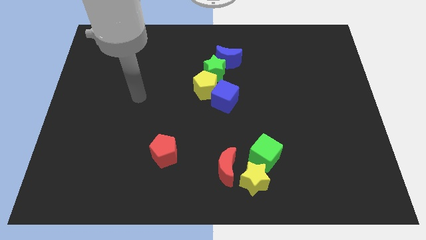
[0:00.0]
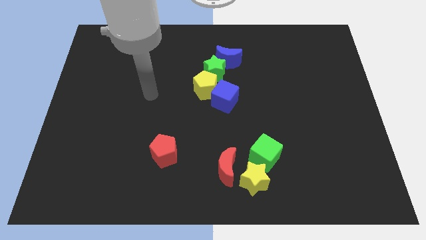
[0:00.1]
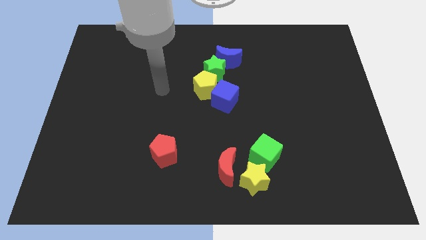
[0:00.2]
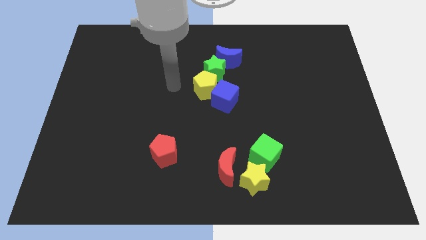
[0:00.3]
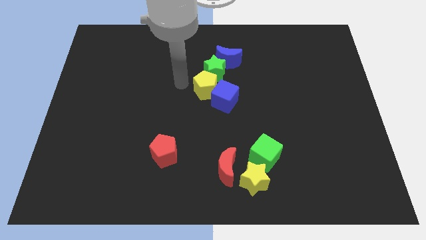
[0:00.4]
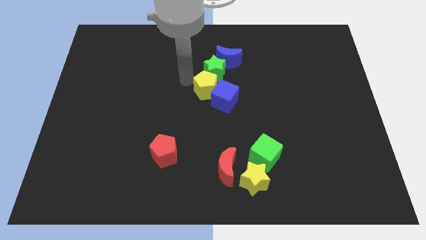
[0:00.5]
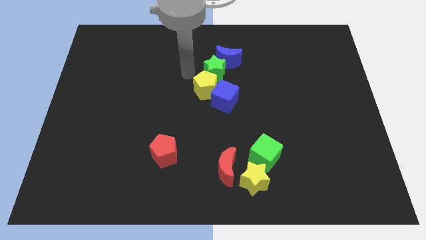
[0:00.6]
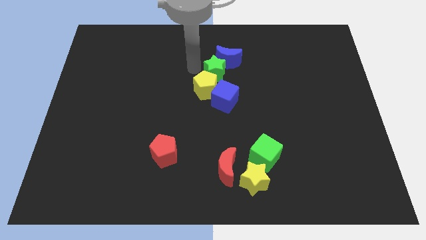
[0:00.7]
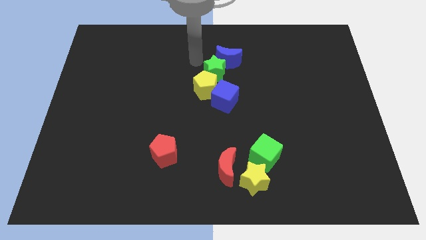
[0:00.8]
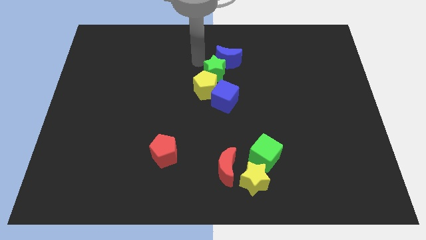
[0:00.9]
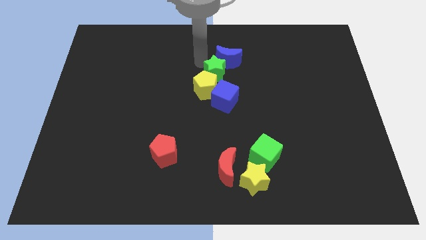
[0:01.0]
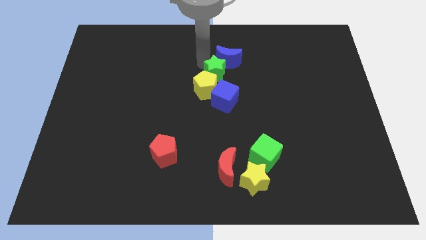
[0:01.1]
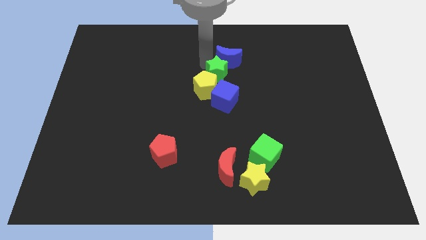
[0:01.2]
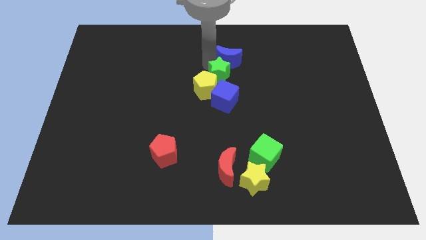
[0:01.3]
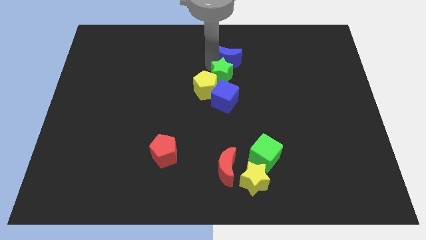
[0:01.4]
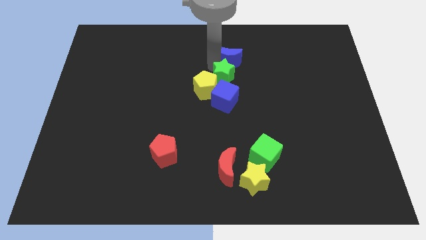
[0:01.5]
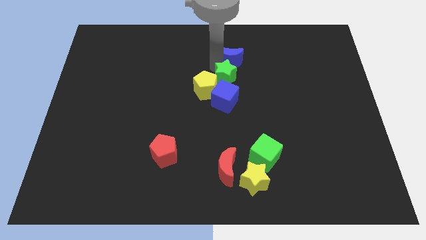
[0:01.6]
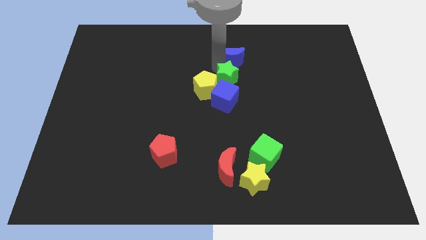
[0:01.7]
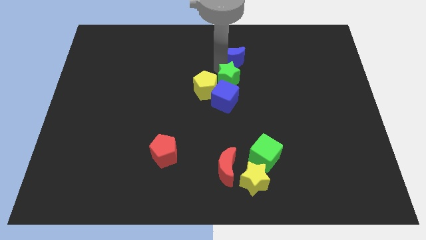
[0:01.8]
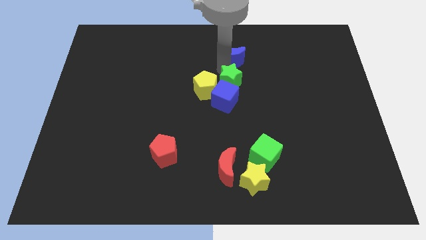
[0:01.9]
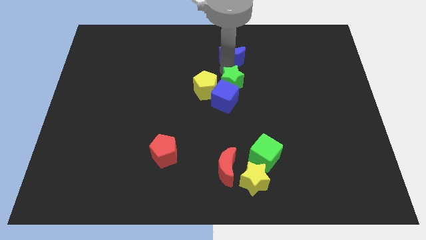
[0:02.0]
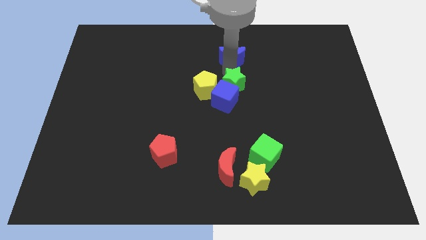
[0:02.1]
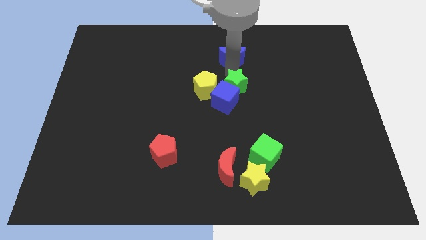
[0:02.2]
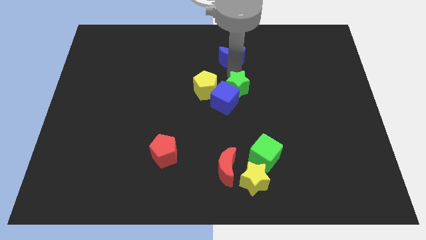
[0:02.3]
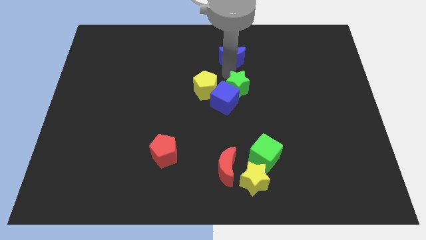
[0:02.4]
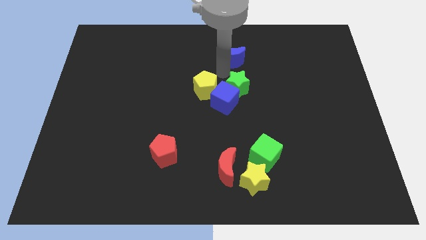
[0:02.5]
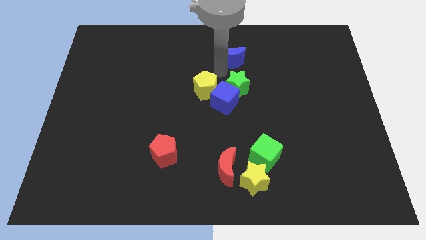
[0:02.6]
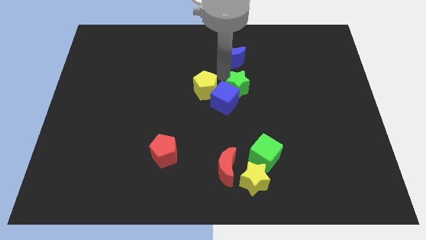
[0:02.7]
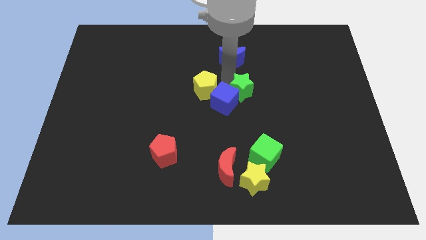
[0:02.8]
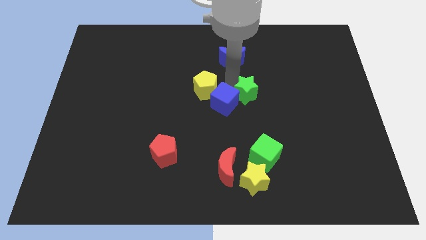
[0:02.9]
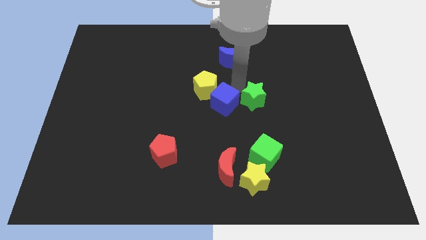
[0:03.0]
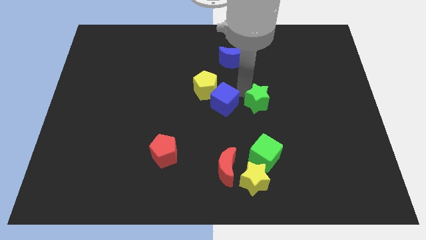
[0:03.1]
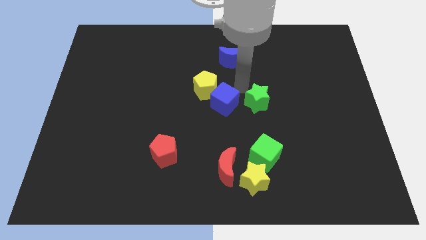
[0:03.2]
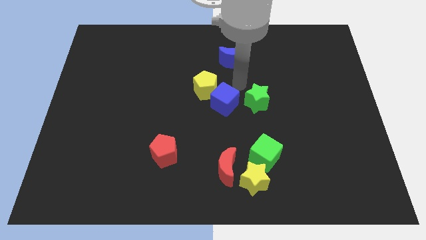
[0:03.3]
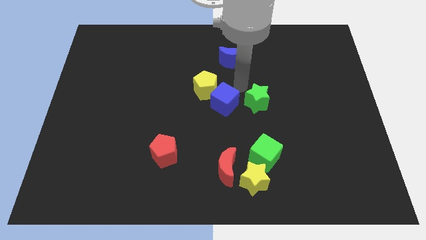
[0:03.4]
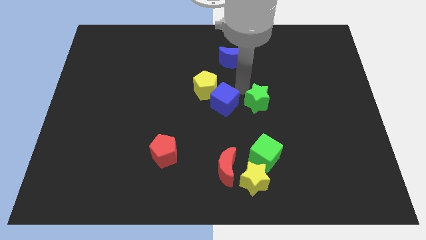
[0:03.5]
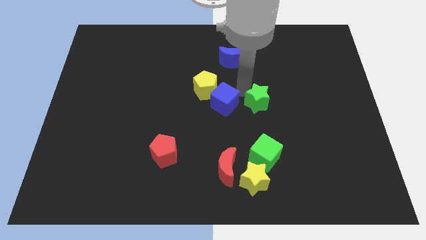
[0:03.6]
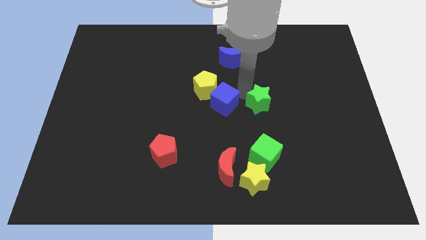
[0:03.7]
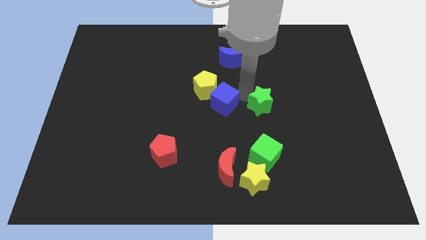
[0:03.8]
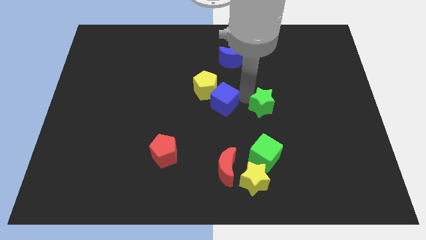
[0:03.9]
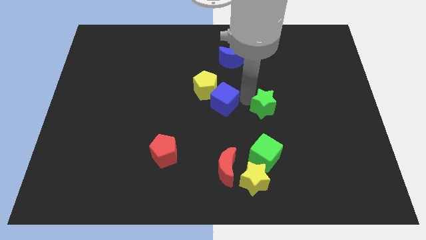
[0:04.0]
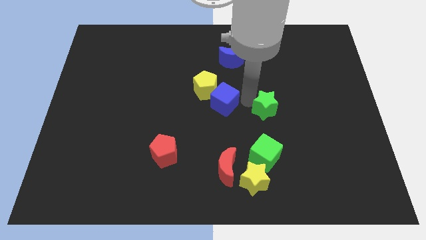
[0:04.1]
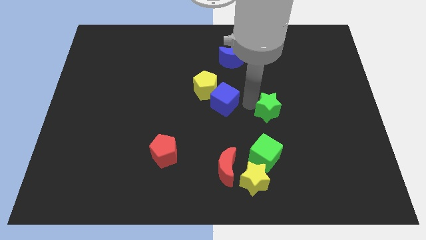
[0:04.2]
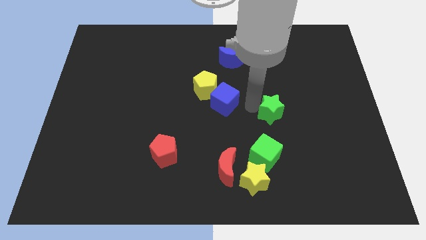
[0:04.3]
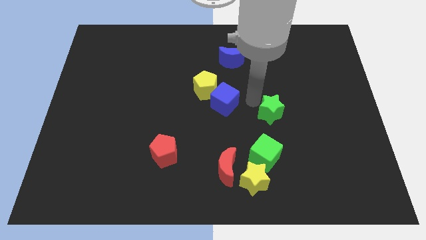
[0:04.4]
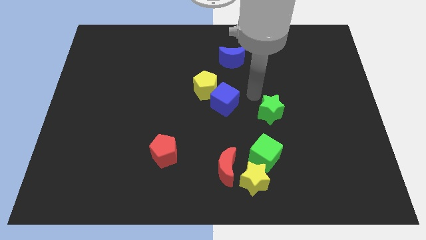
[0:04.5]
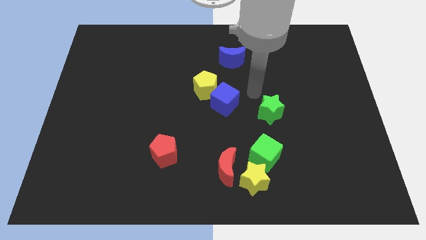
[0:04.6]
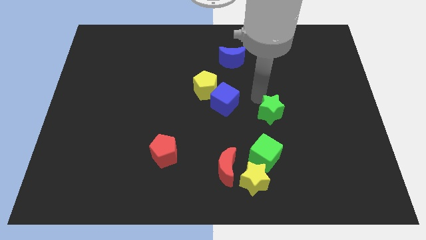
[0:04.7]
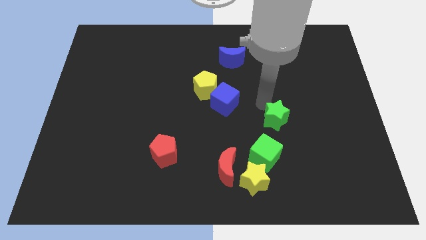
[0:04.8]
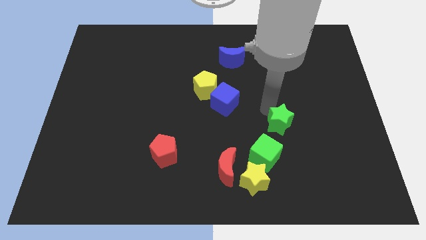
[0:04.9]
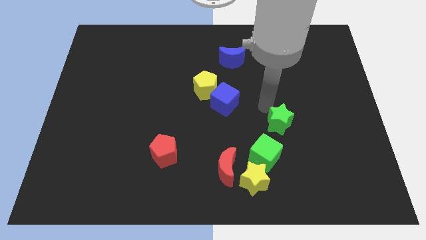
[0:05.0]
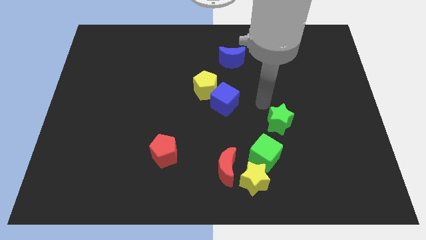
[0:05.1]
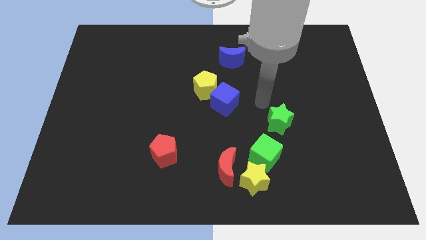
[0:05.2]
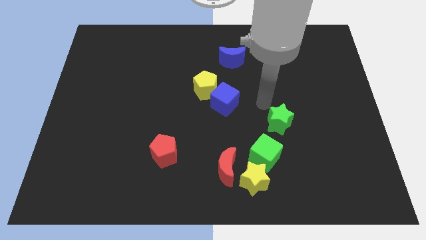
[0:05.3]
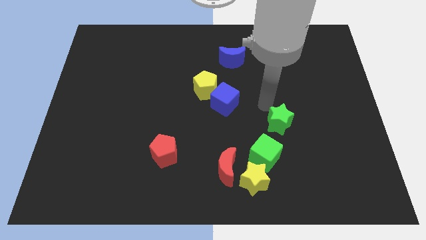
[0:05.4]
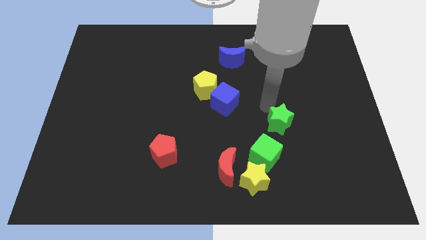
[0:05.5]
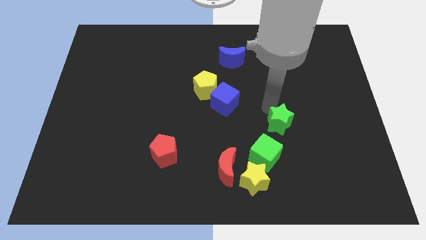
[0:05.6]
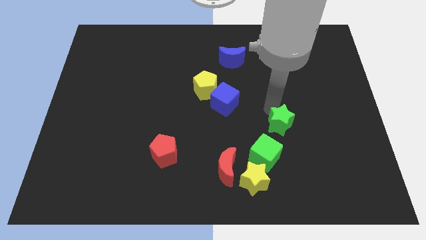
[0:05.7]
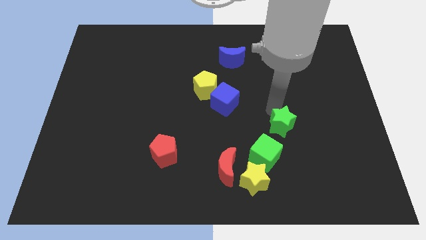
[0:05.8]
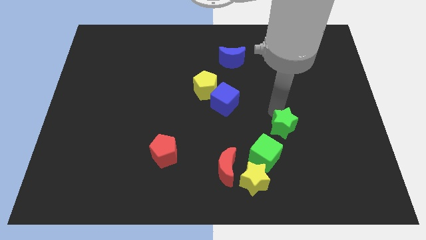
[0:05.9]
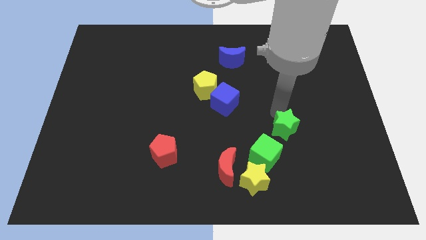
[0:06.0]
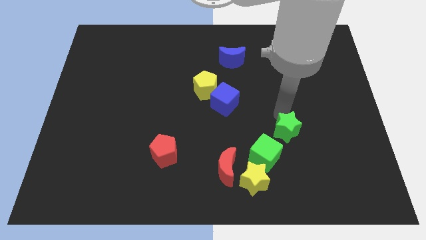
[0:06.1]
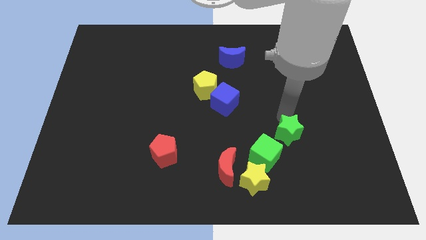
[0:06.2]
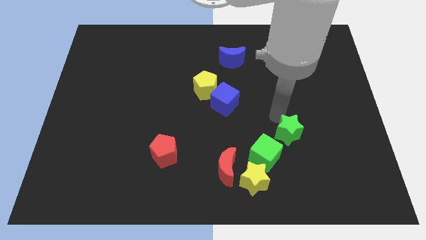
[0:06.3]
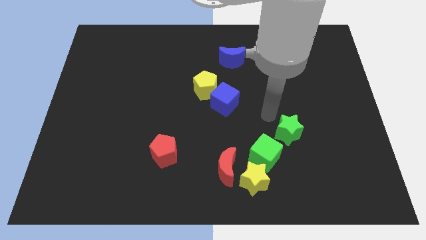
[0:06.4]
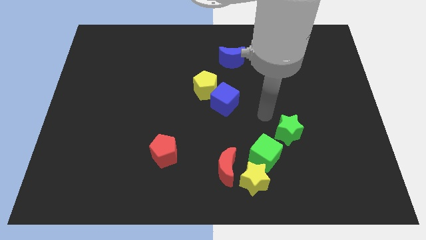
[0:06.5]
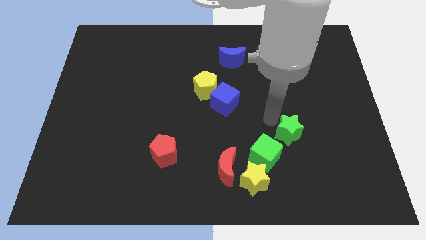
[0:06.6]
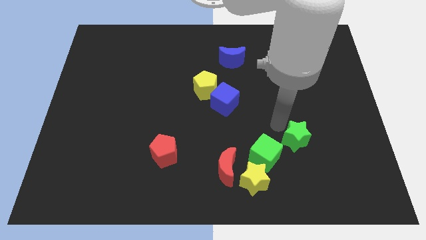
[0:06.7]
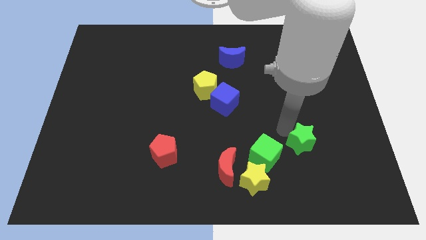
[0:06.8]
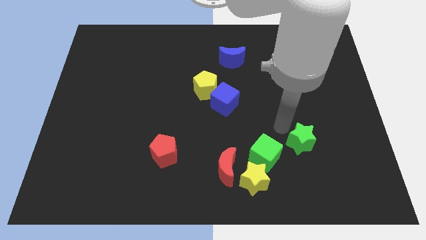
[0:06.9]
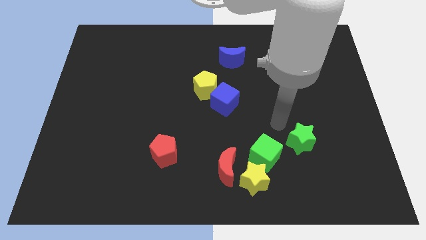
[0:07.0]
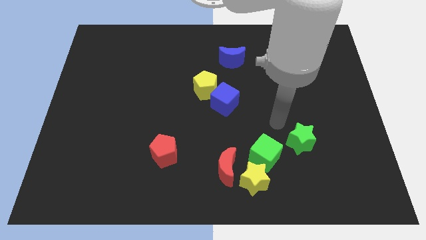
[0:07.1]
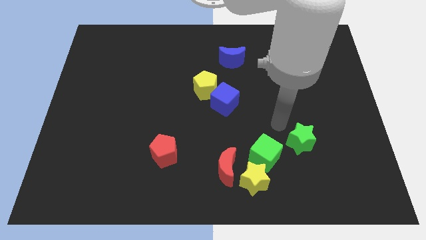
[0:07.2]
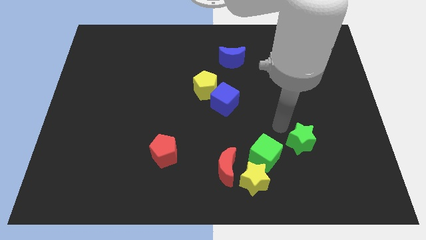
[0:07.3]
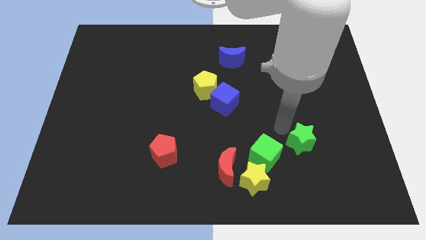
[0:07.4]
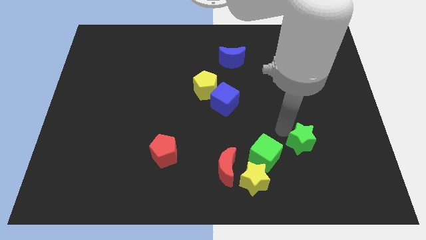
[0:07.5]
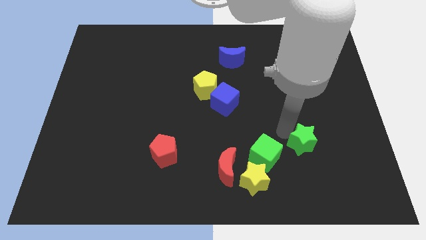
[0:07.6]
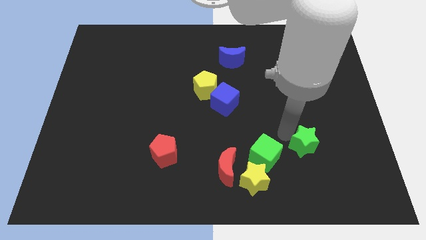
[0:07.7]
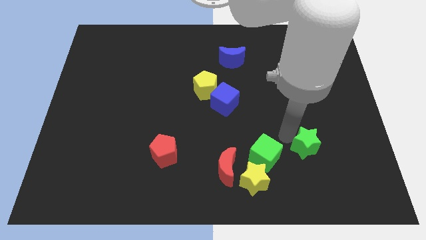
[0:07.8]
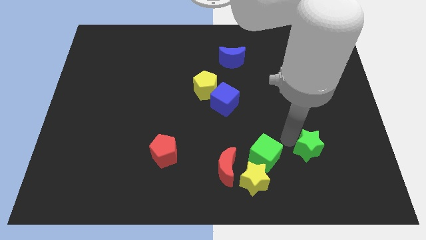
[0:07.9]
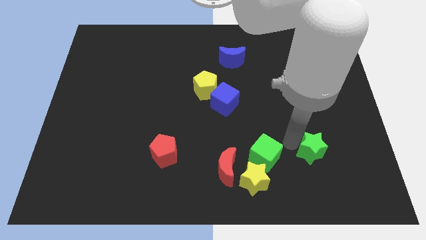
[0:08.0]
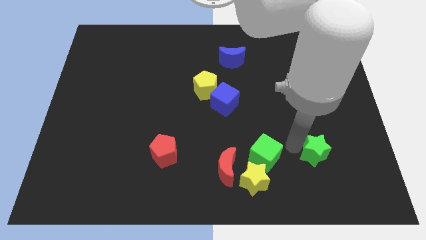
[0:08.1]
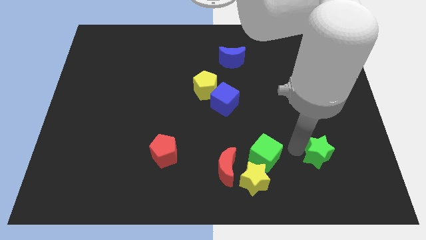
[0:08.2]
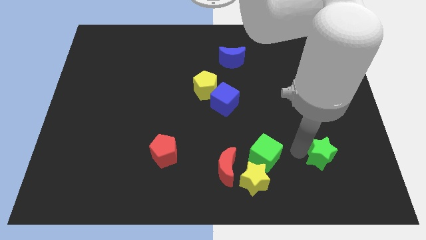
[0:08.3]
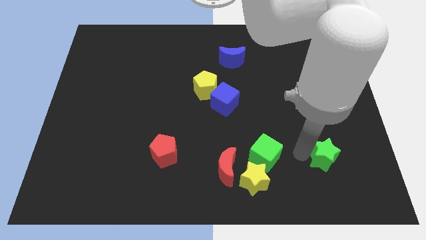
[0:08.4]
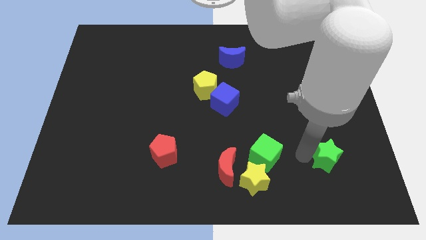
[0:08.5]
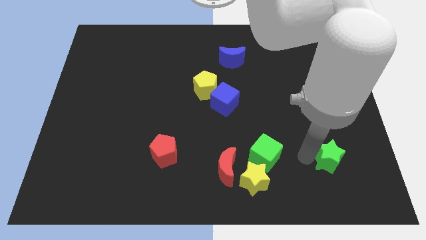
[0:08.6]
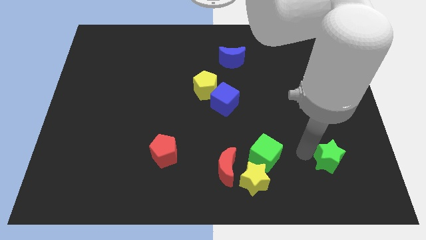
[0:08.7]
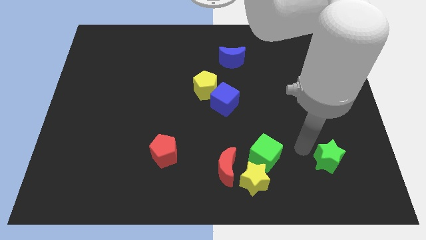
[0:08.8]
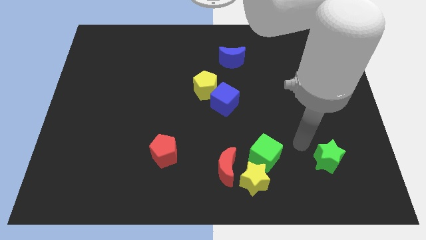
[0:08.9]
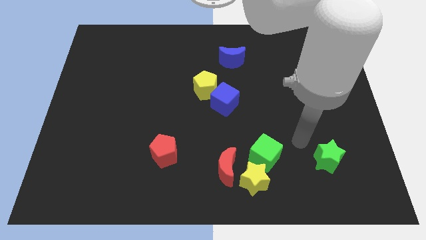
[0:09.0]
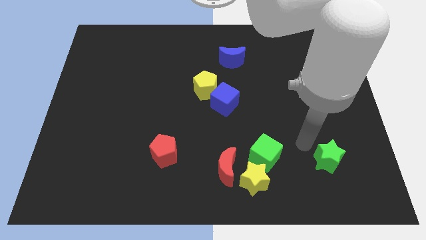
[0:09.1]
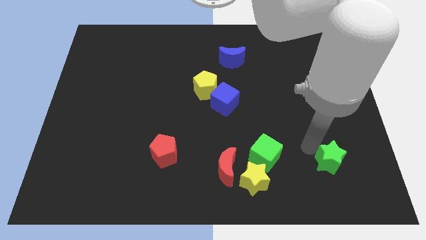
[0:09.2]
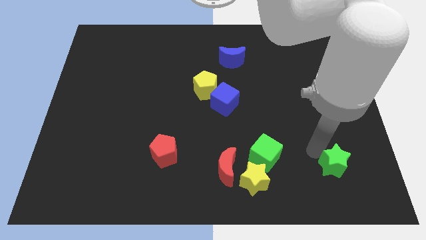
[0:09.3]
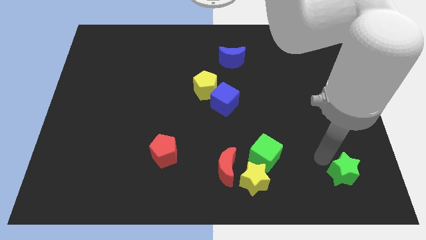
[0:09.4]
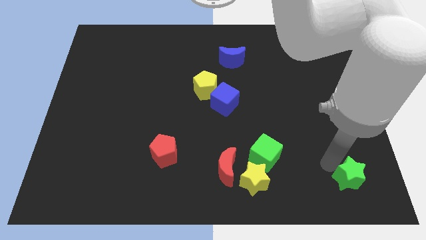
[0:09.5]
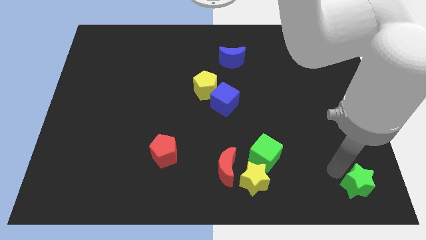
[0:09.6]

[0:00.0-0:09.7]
push the green star to the bottom right corner
